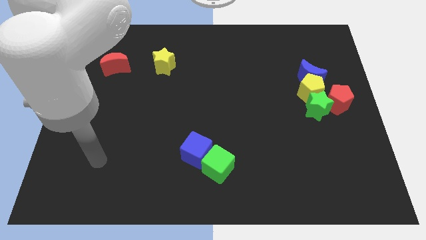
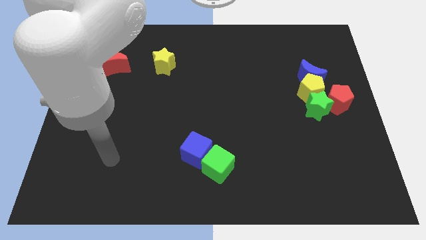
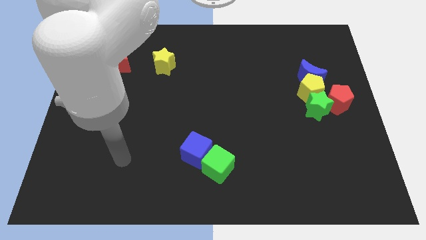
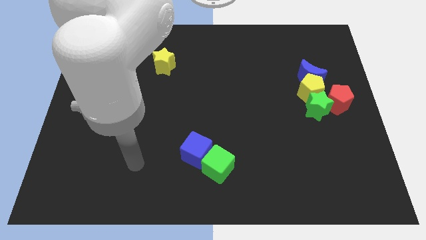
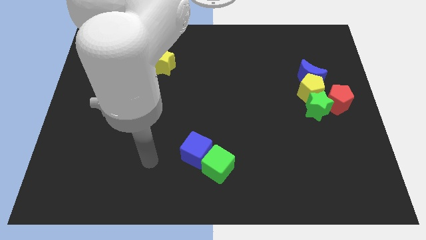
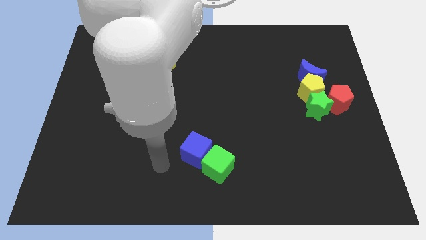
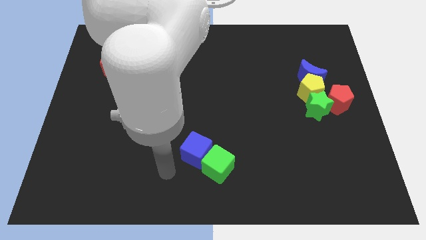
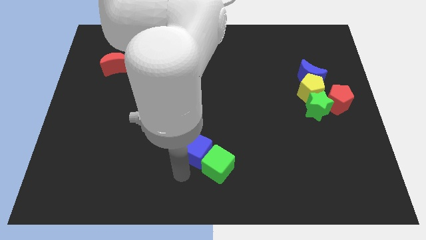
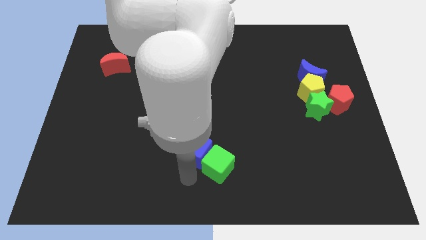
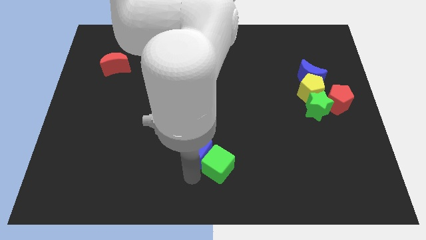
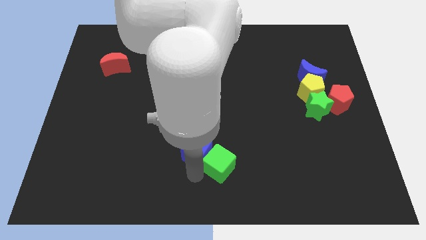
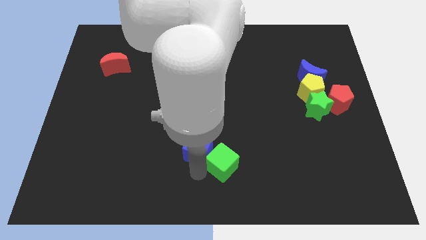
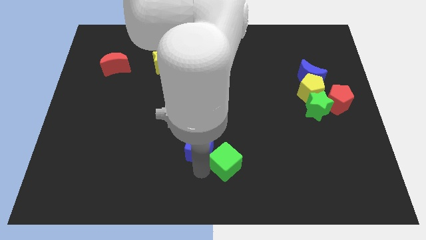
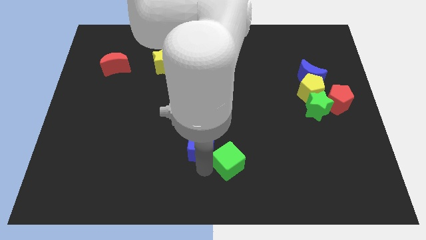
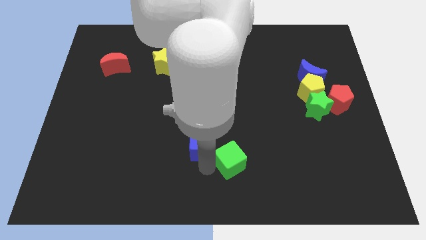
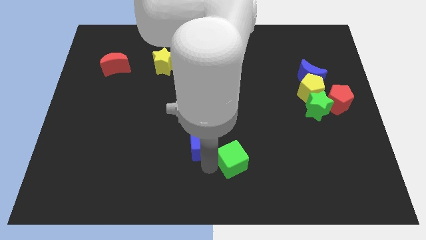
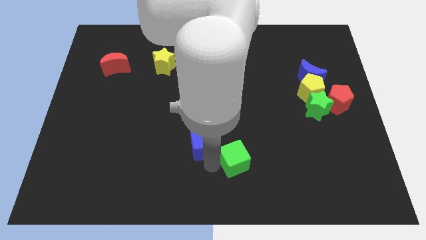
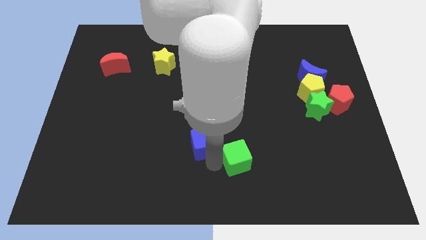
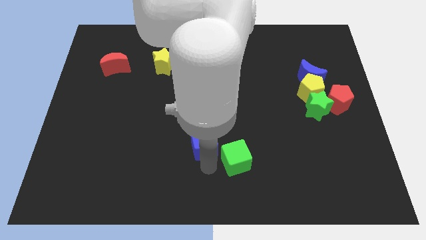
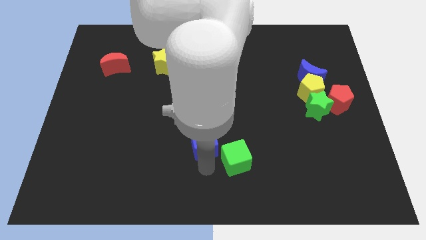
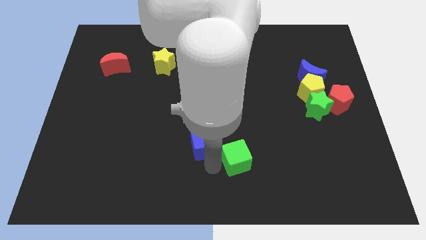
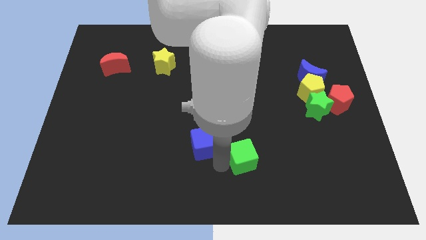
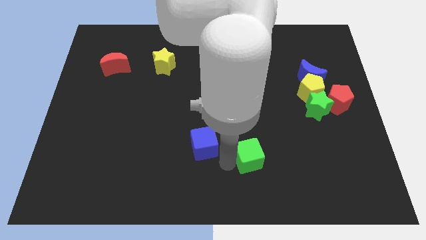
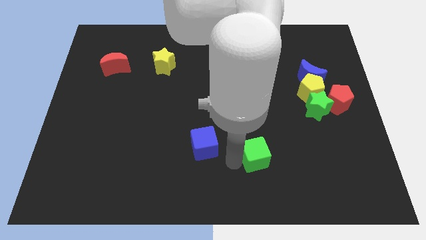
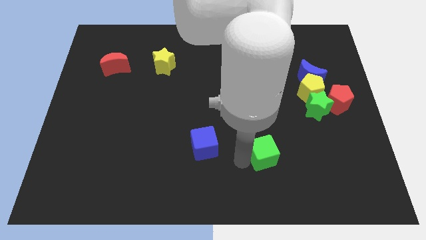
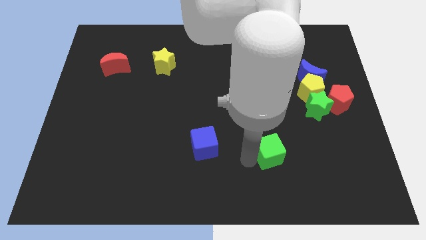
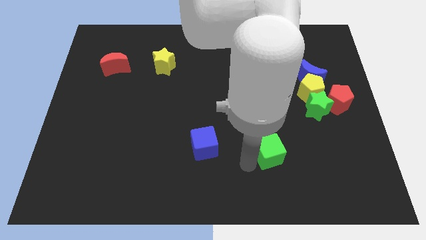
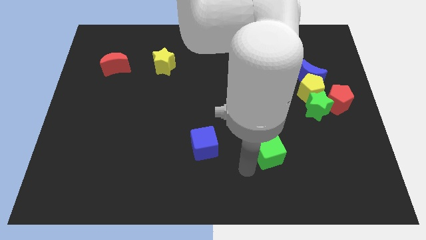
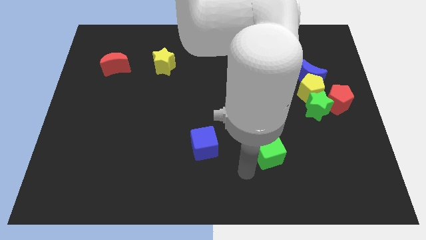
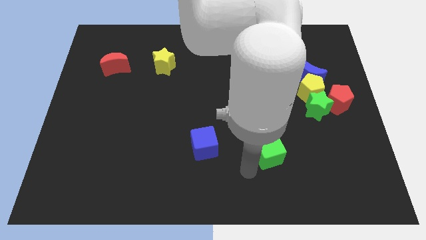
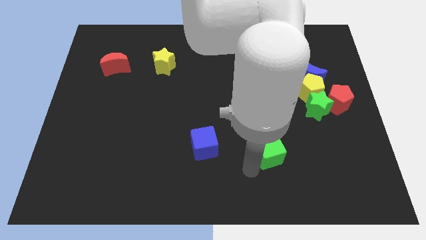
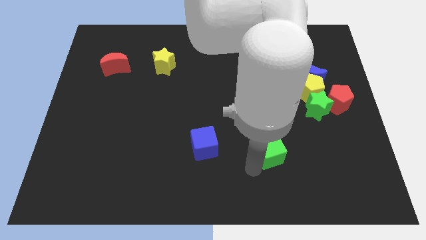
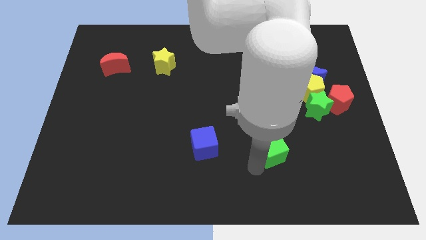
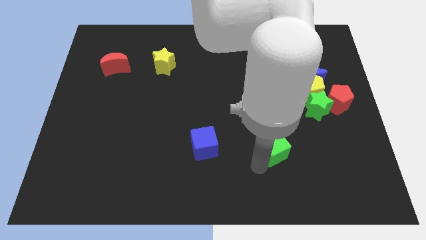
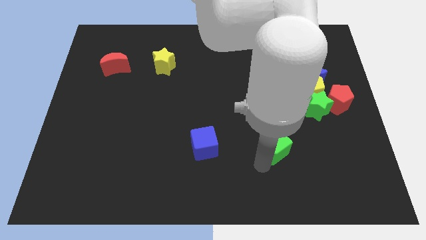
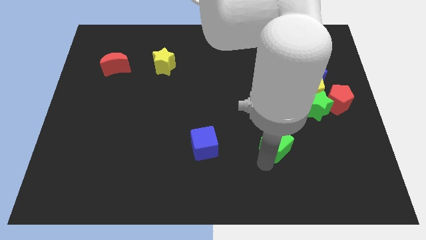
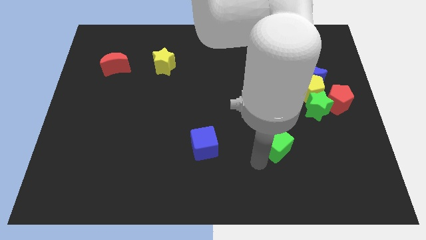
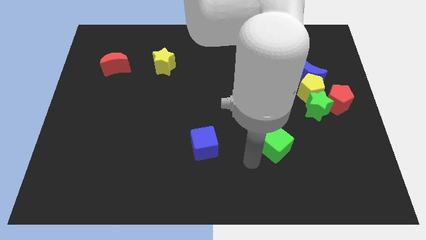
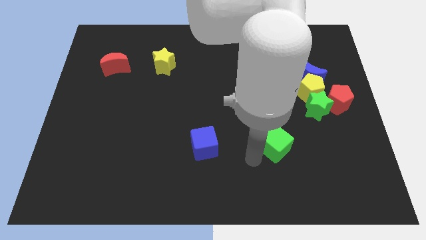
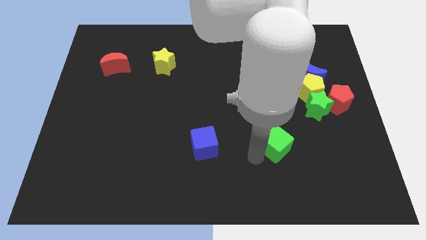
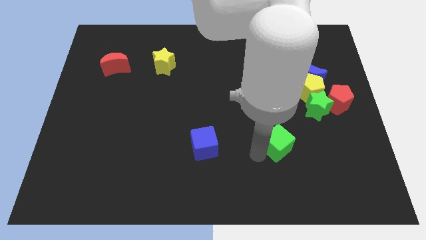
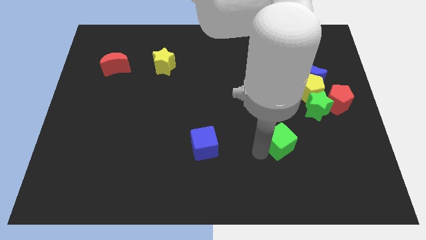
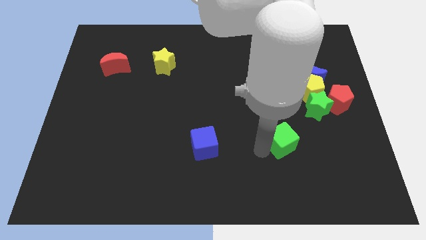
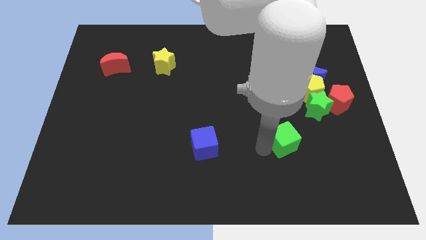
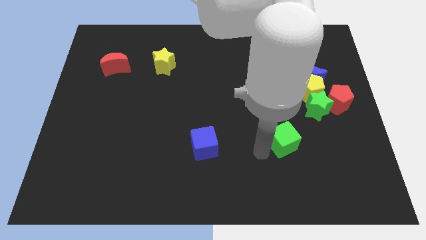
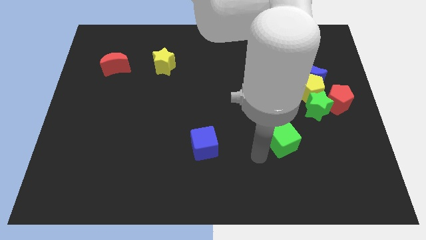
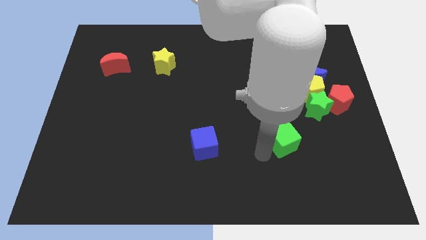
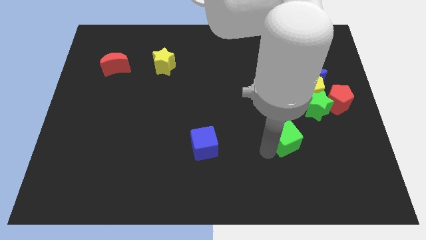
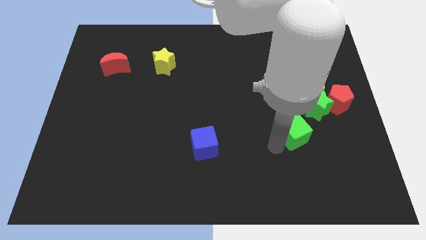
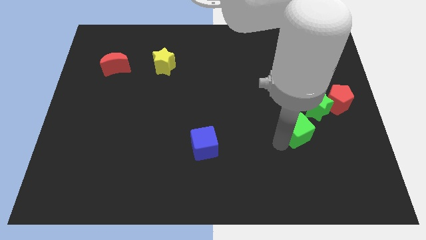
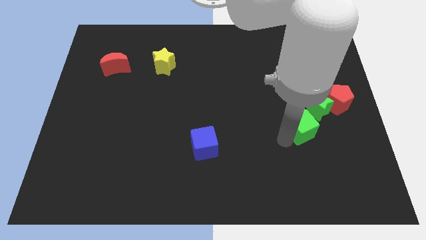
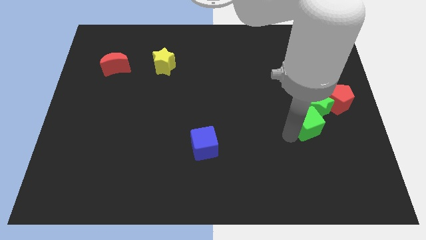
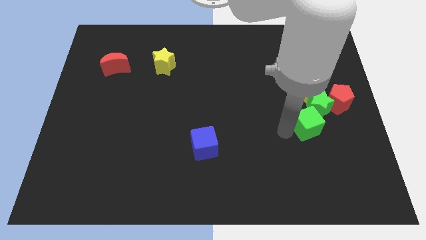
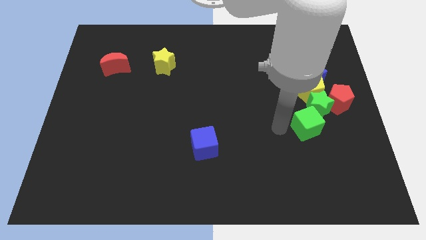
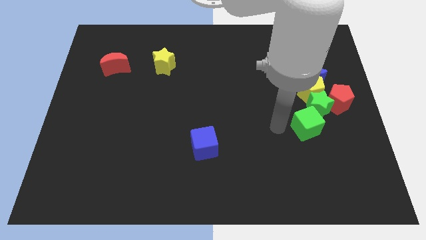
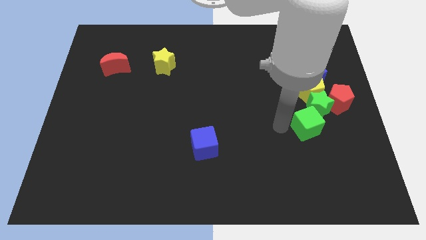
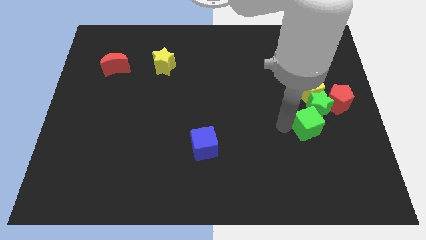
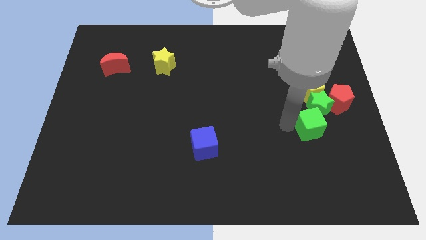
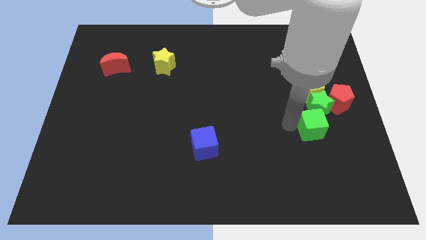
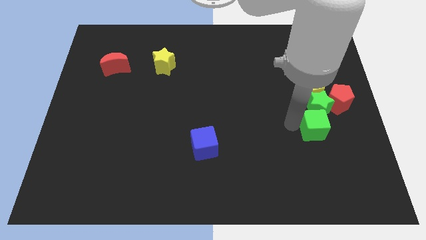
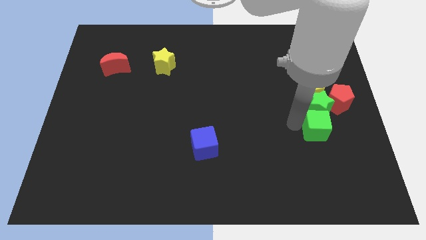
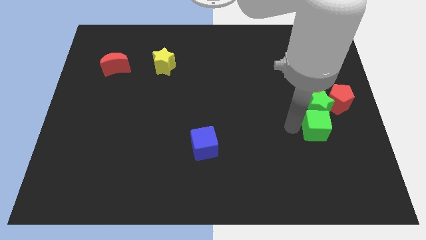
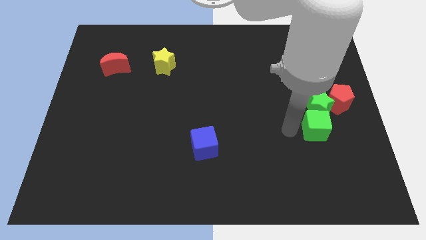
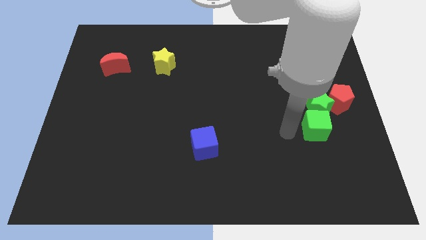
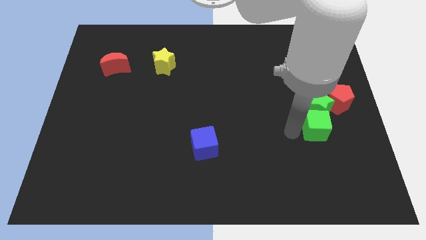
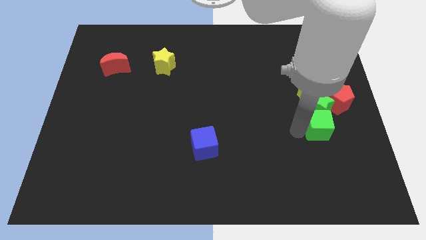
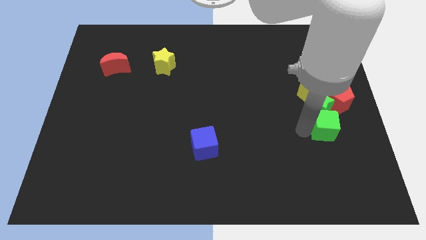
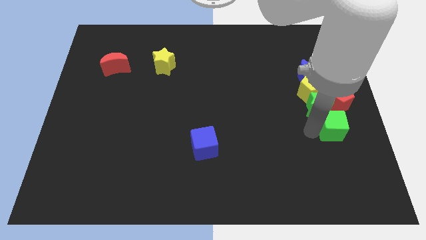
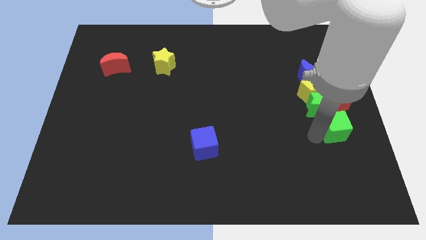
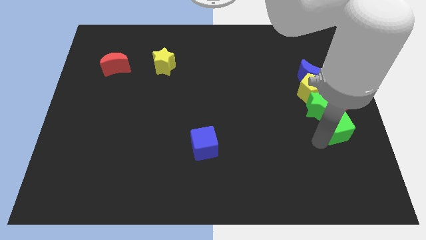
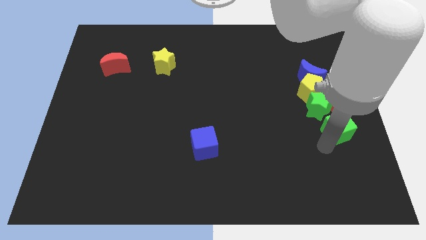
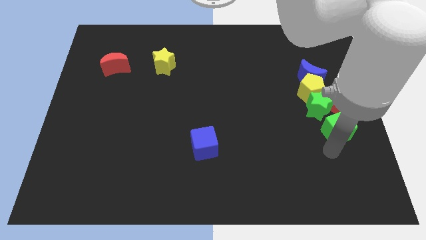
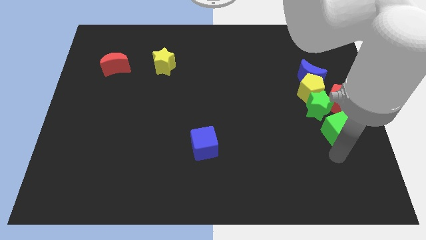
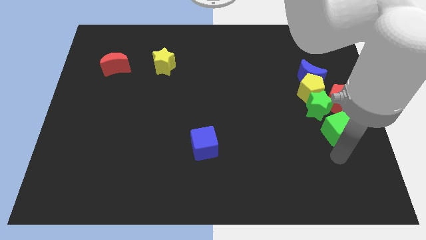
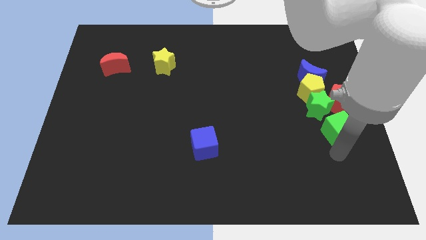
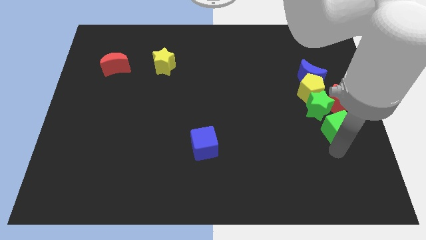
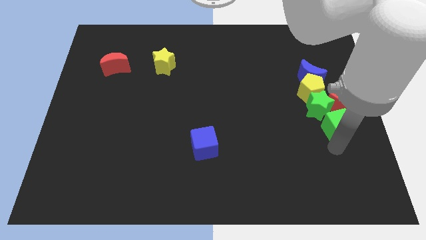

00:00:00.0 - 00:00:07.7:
move the green cube to the bottom right of the yellow pentagon
